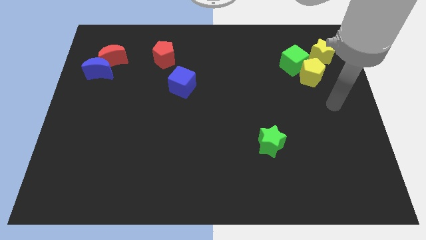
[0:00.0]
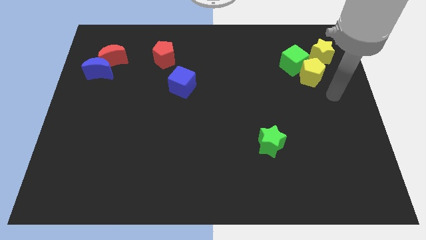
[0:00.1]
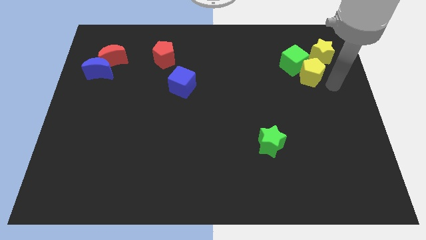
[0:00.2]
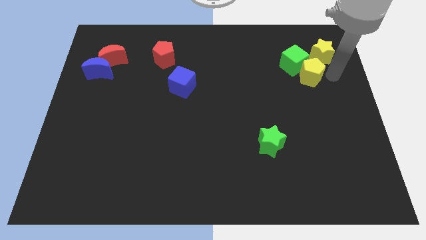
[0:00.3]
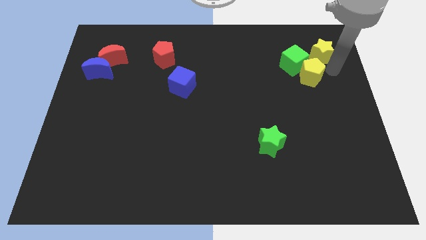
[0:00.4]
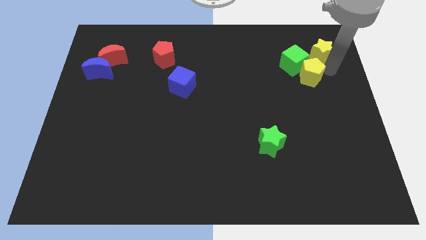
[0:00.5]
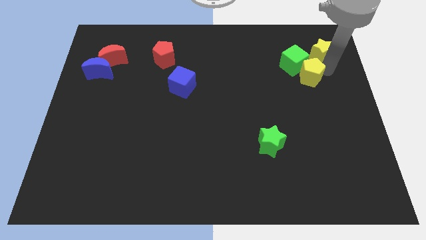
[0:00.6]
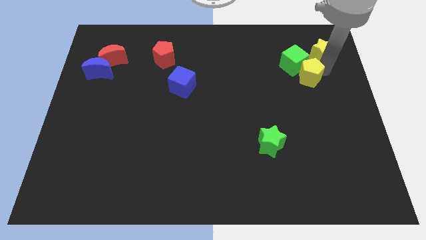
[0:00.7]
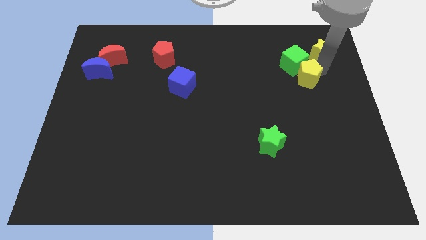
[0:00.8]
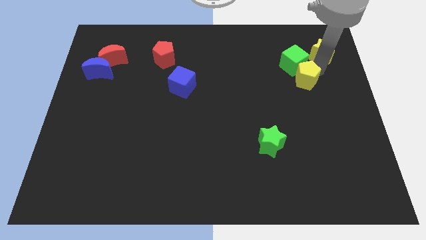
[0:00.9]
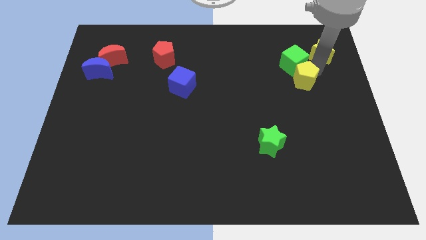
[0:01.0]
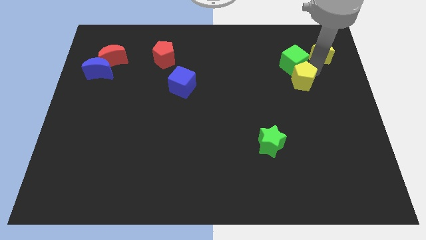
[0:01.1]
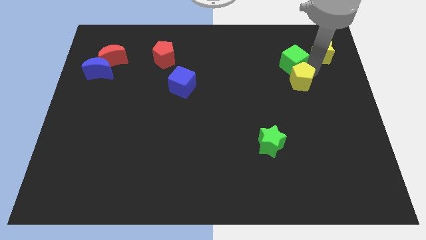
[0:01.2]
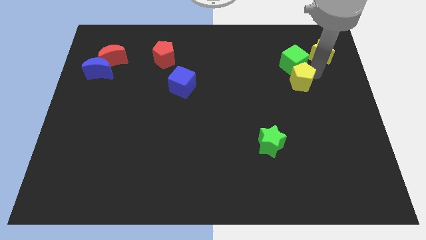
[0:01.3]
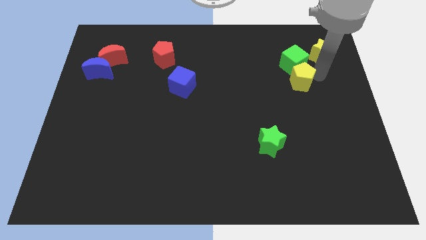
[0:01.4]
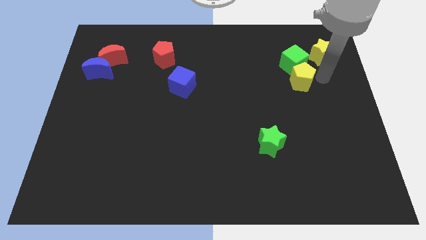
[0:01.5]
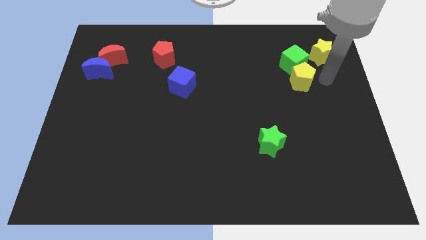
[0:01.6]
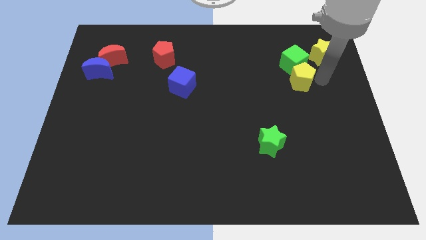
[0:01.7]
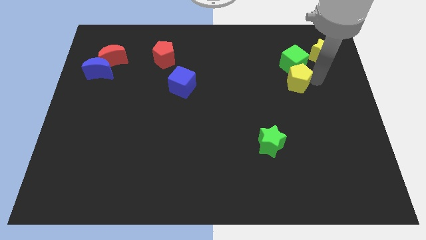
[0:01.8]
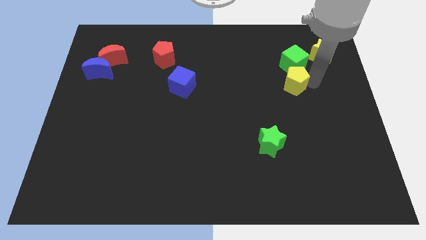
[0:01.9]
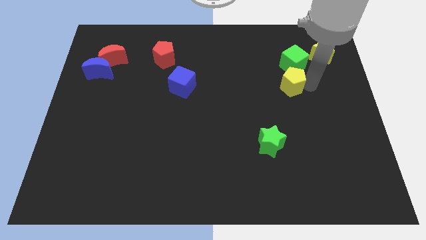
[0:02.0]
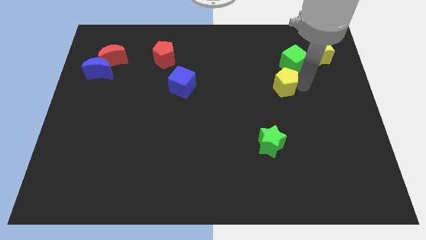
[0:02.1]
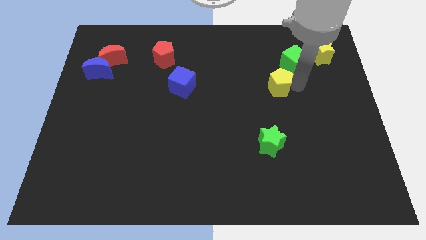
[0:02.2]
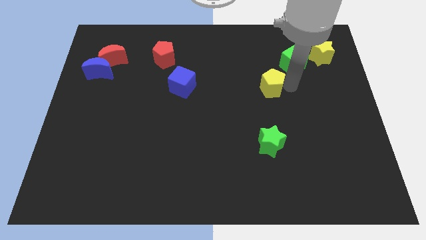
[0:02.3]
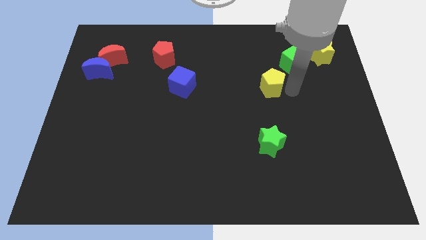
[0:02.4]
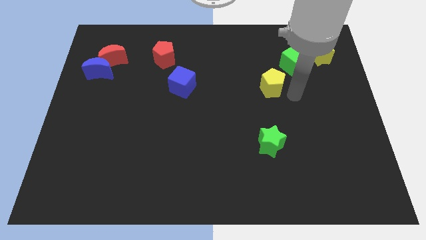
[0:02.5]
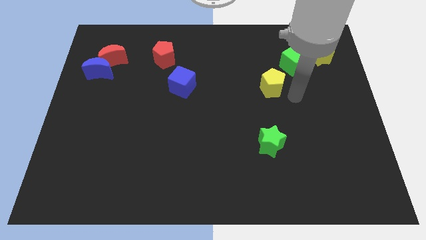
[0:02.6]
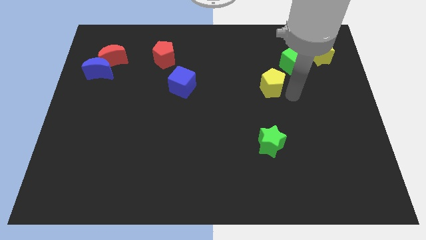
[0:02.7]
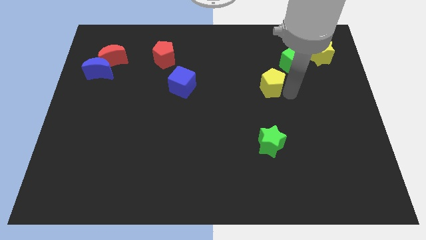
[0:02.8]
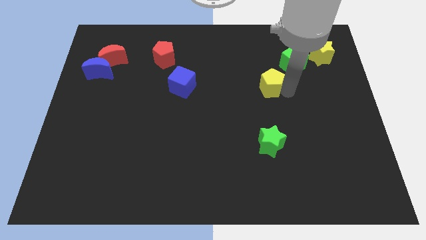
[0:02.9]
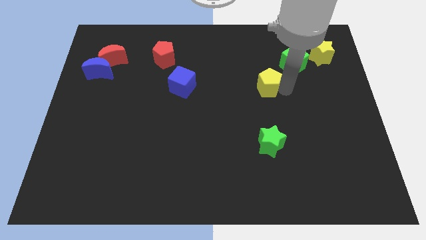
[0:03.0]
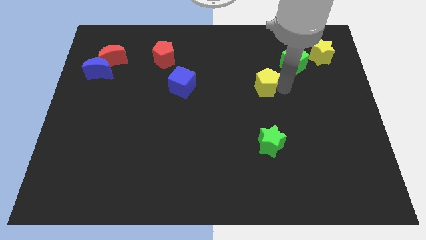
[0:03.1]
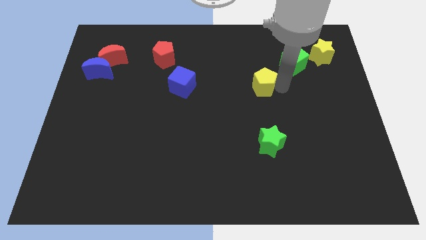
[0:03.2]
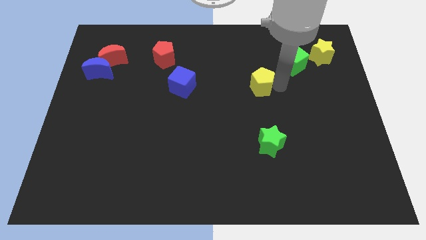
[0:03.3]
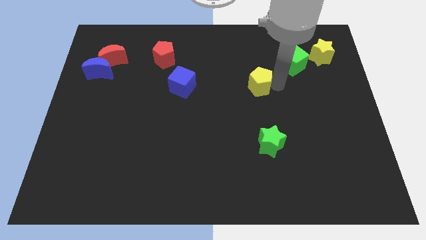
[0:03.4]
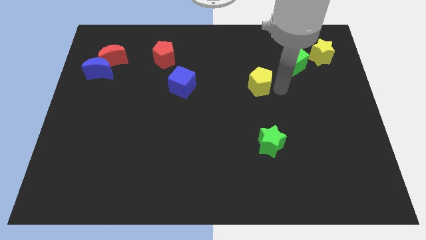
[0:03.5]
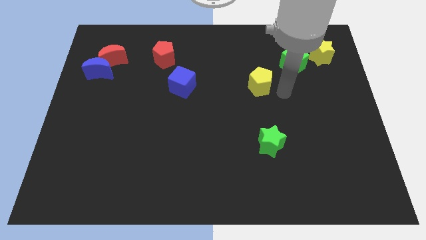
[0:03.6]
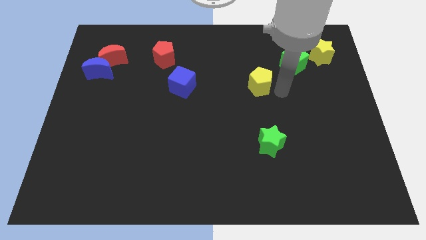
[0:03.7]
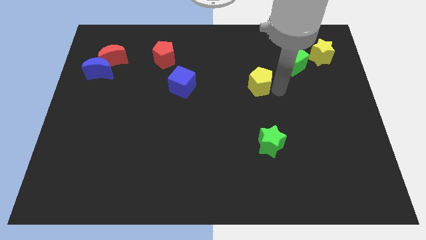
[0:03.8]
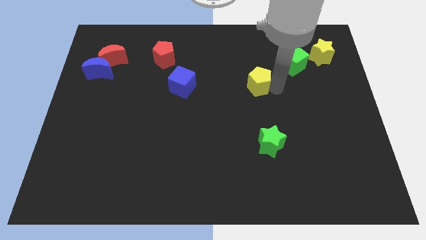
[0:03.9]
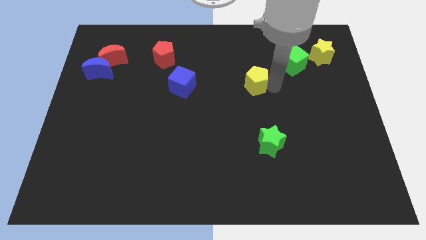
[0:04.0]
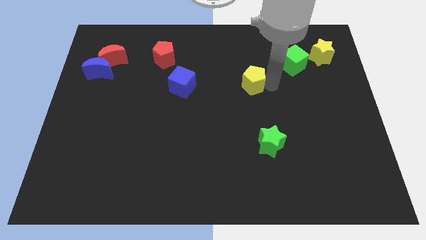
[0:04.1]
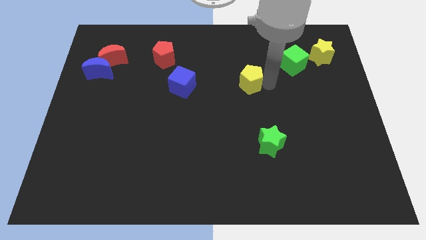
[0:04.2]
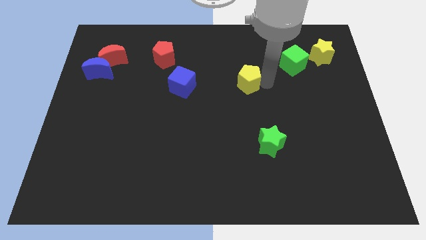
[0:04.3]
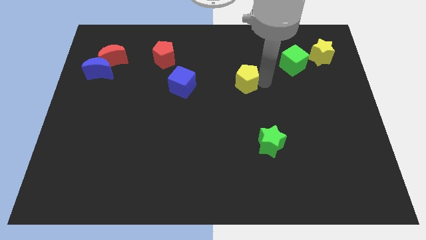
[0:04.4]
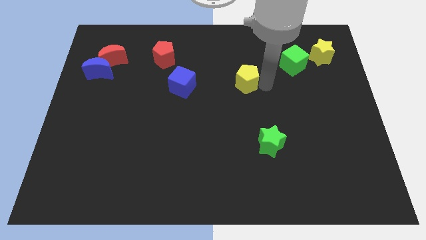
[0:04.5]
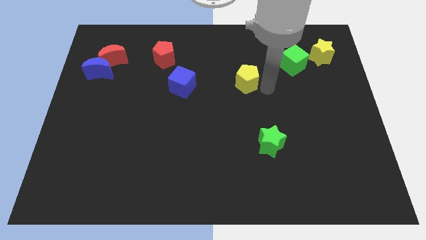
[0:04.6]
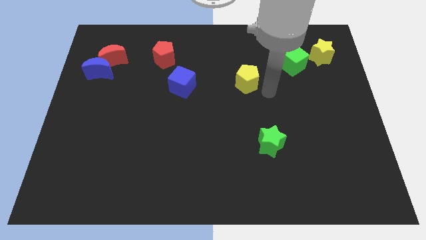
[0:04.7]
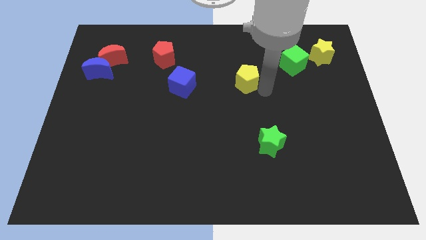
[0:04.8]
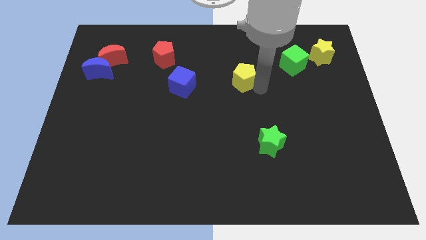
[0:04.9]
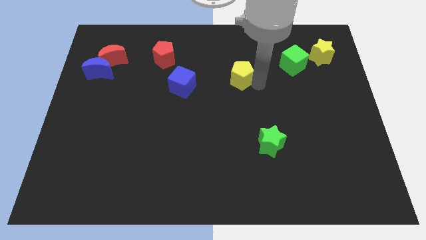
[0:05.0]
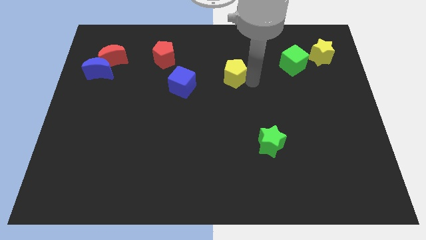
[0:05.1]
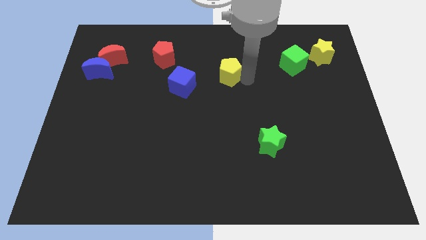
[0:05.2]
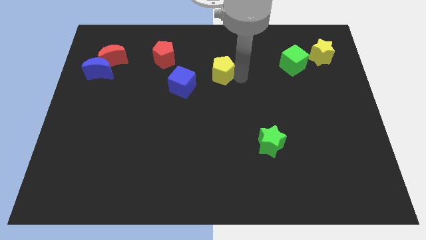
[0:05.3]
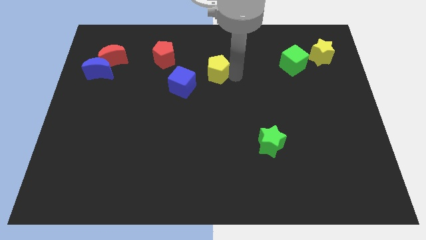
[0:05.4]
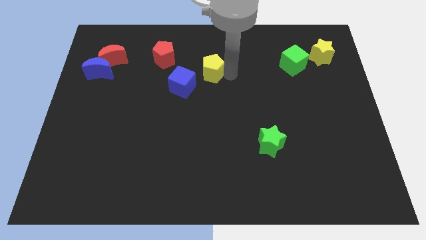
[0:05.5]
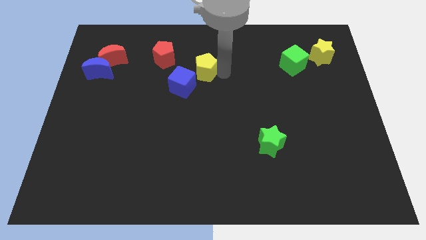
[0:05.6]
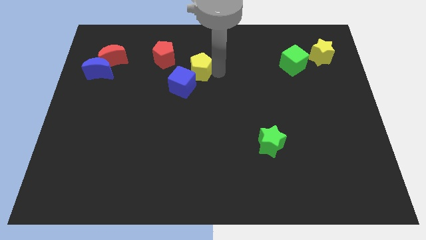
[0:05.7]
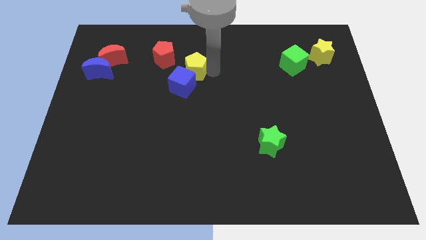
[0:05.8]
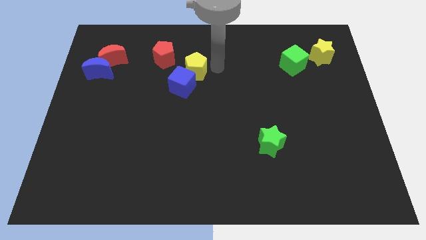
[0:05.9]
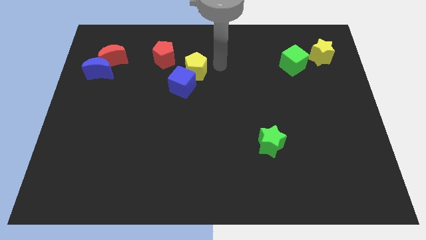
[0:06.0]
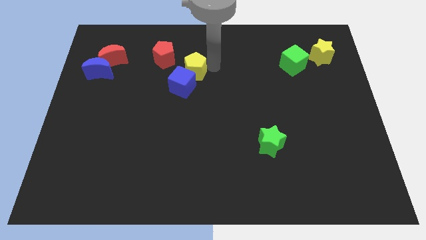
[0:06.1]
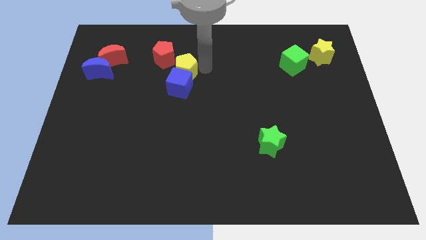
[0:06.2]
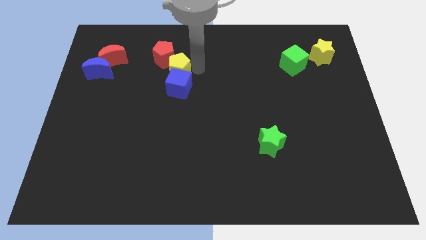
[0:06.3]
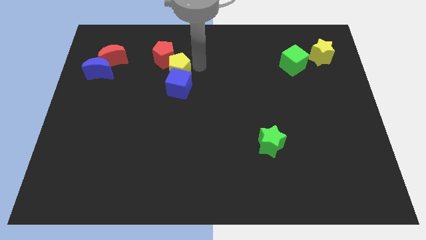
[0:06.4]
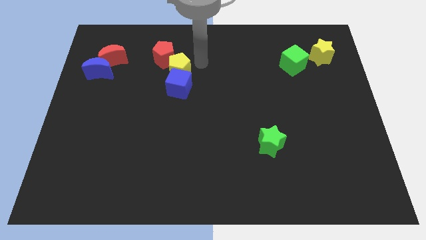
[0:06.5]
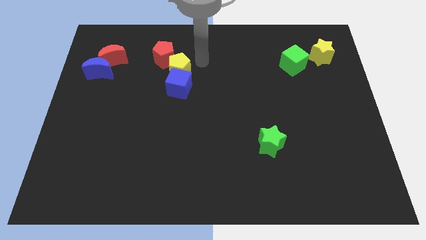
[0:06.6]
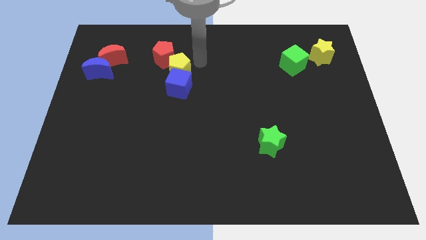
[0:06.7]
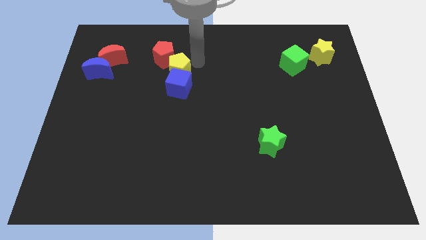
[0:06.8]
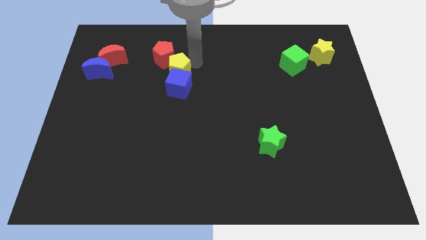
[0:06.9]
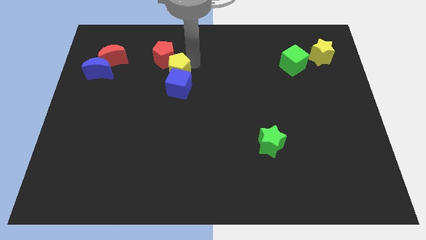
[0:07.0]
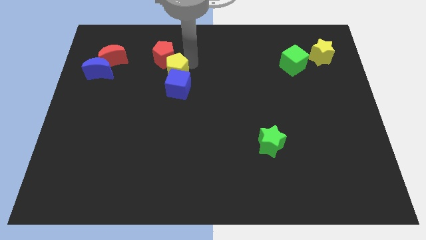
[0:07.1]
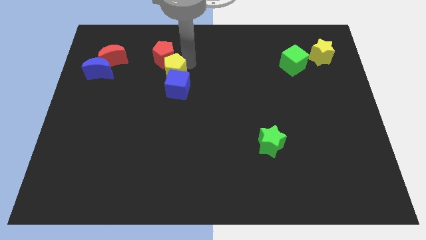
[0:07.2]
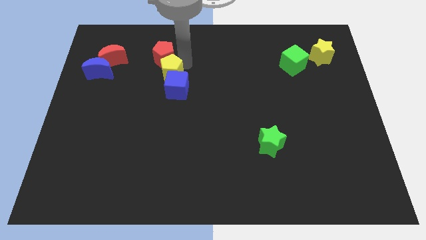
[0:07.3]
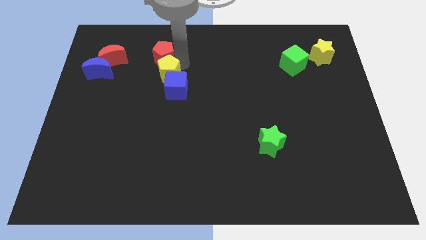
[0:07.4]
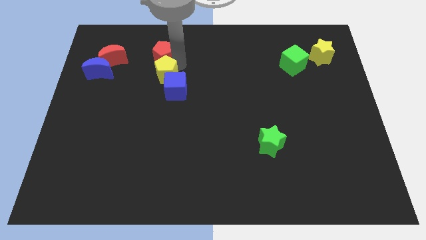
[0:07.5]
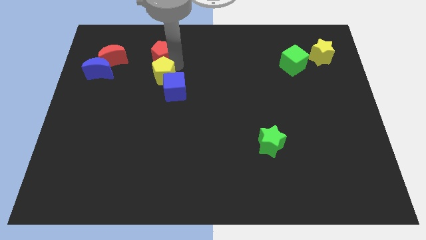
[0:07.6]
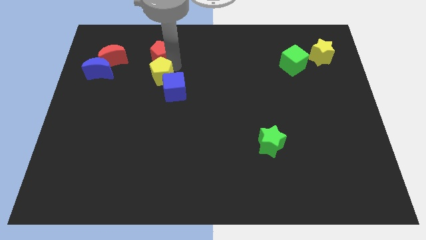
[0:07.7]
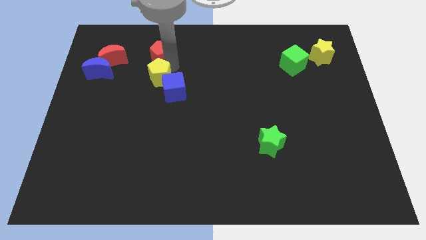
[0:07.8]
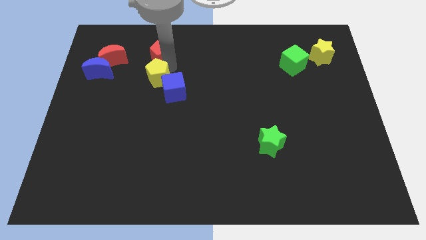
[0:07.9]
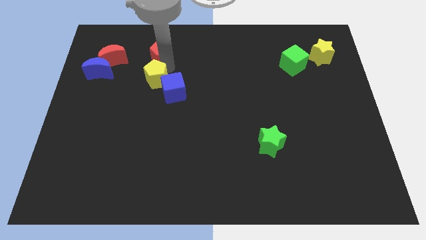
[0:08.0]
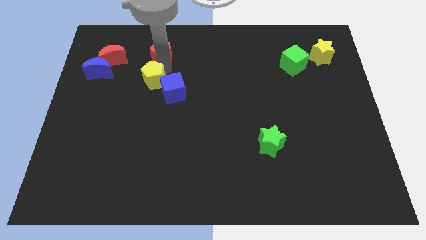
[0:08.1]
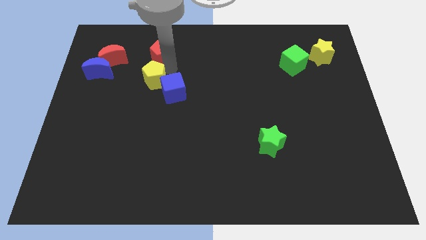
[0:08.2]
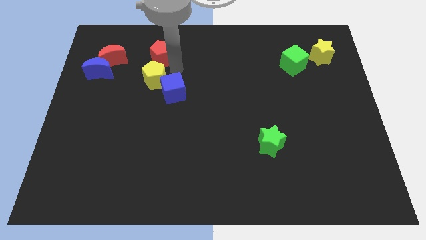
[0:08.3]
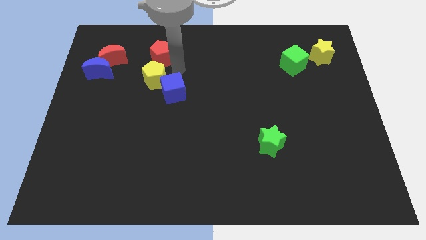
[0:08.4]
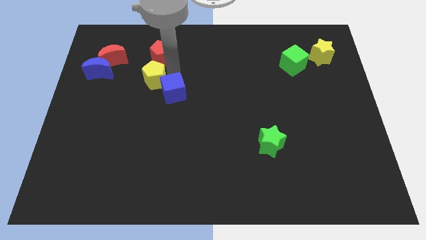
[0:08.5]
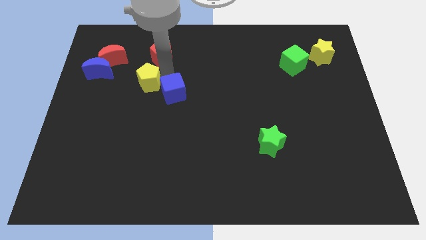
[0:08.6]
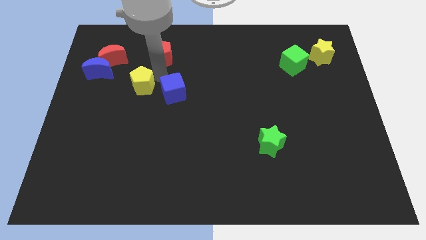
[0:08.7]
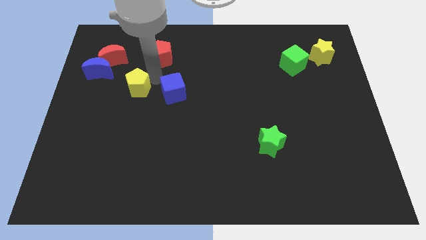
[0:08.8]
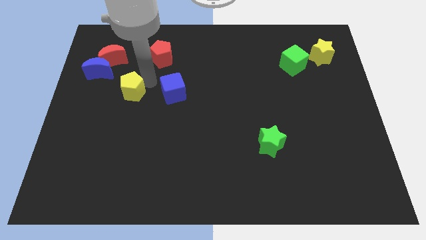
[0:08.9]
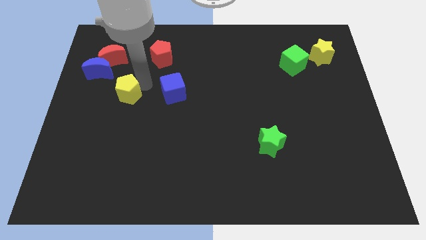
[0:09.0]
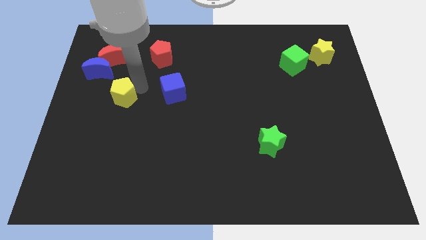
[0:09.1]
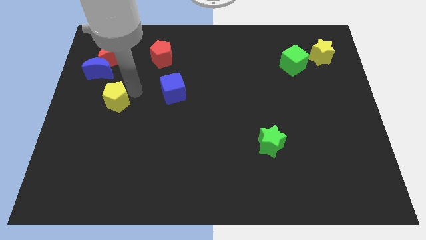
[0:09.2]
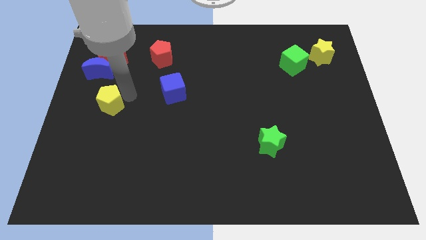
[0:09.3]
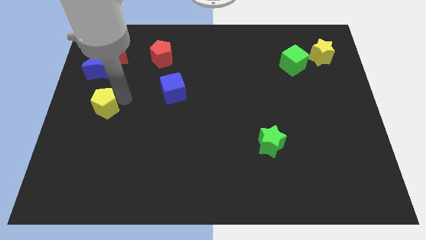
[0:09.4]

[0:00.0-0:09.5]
put the yellow pentagon to the left side of the board
